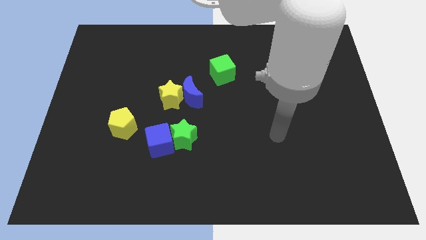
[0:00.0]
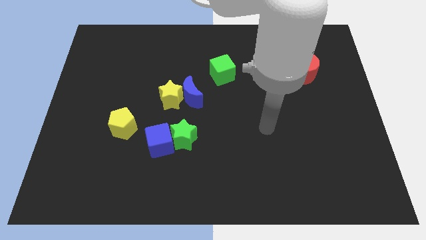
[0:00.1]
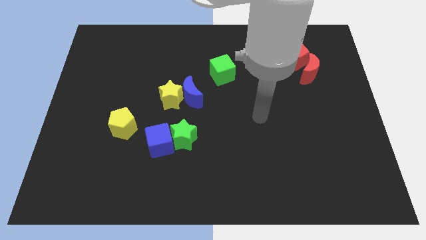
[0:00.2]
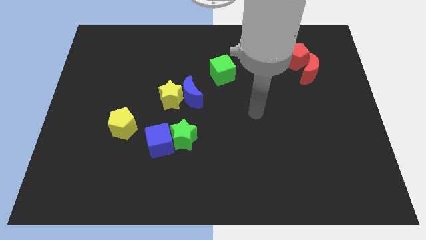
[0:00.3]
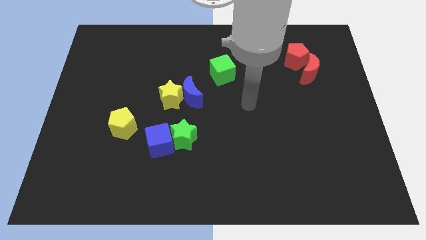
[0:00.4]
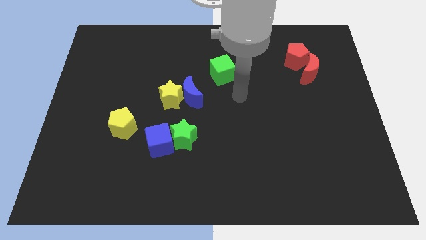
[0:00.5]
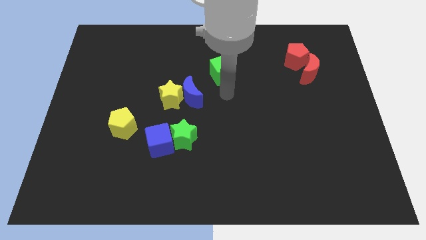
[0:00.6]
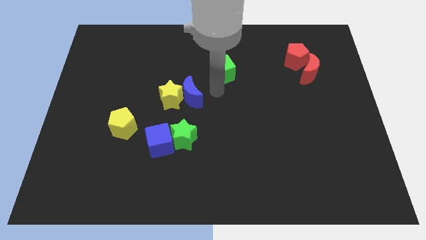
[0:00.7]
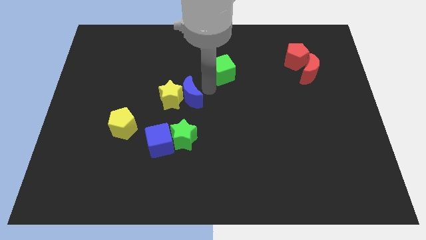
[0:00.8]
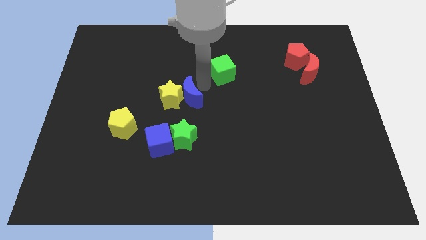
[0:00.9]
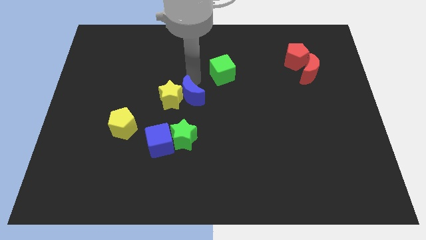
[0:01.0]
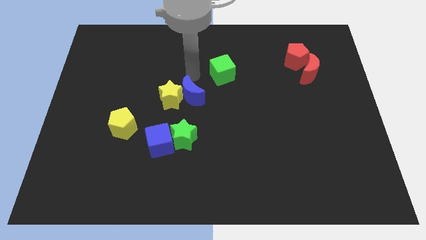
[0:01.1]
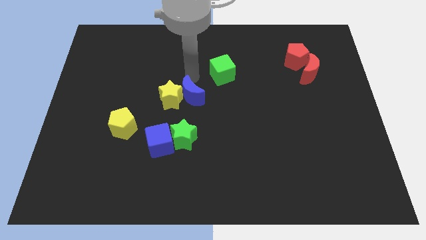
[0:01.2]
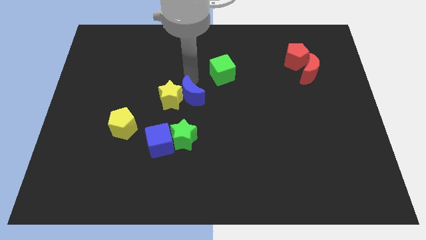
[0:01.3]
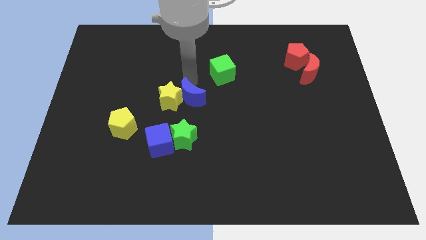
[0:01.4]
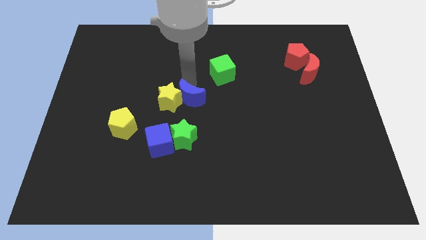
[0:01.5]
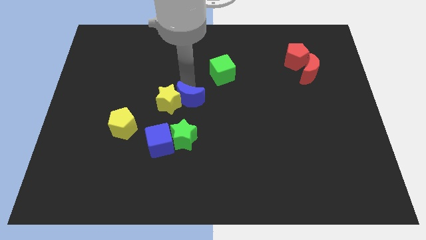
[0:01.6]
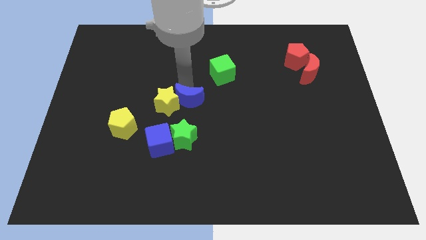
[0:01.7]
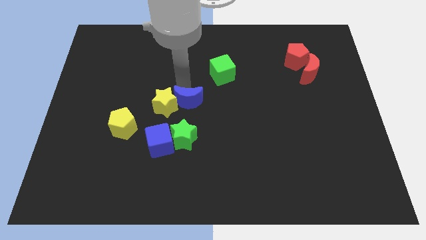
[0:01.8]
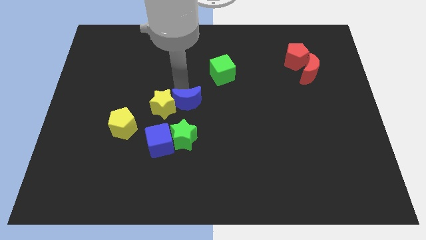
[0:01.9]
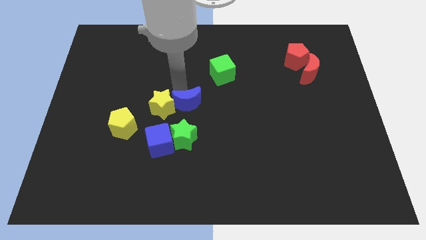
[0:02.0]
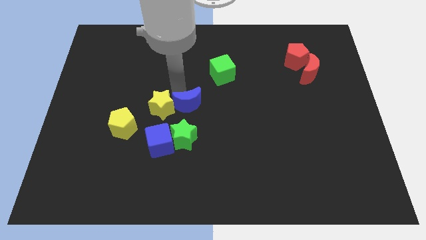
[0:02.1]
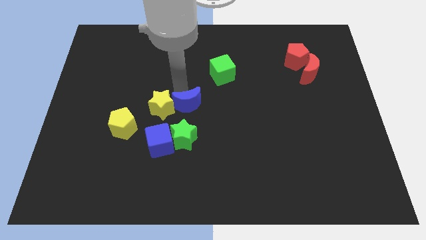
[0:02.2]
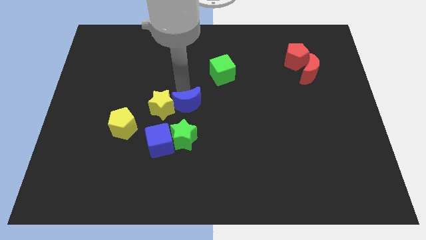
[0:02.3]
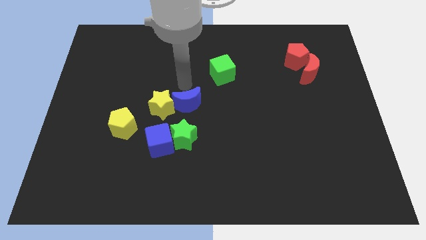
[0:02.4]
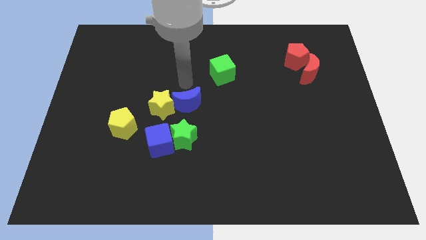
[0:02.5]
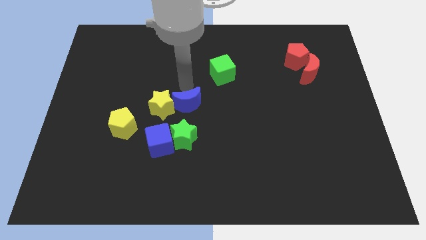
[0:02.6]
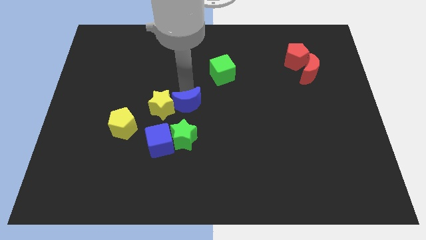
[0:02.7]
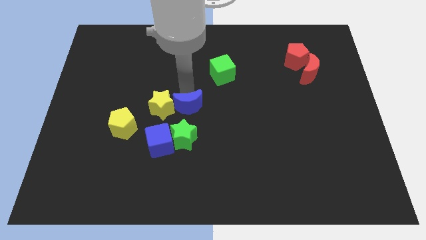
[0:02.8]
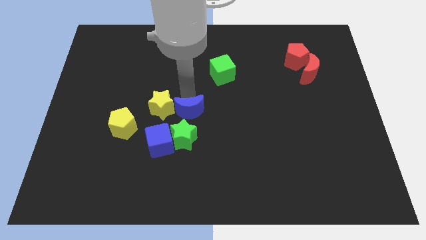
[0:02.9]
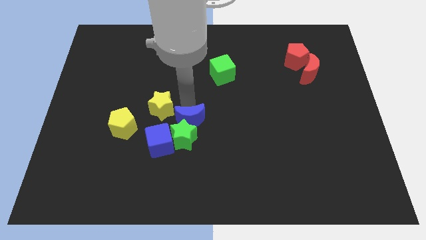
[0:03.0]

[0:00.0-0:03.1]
move the blue moon downwards a little bit

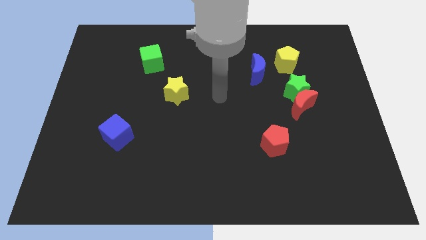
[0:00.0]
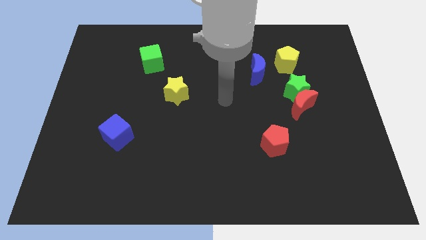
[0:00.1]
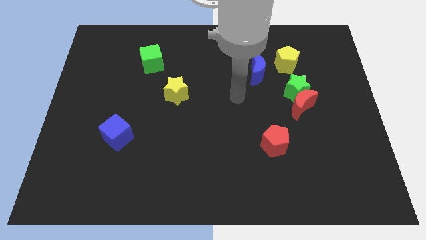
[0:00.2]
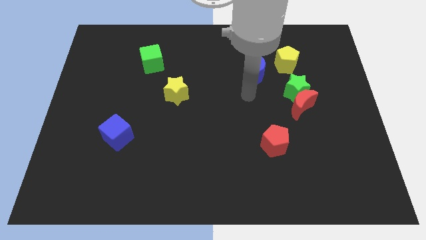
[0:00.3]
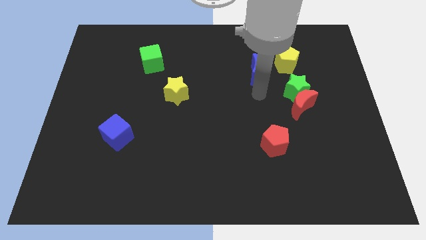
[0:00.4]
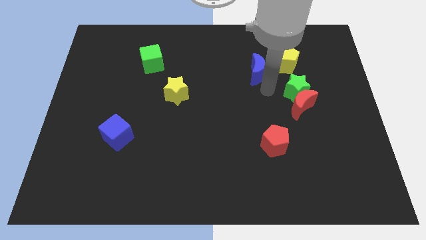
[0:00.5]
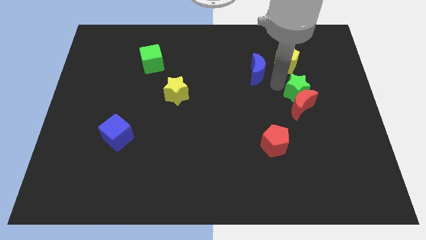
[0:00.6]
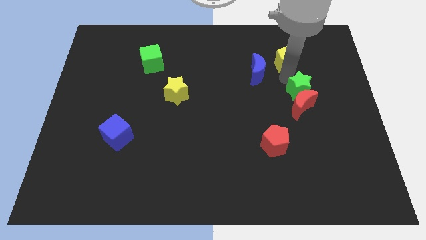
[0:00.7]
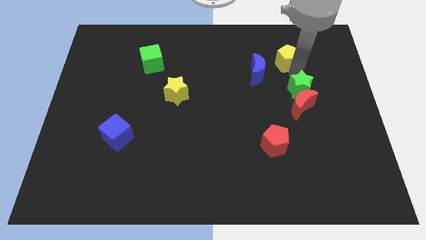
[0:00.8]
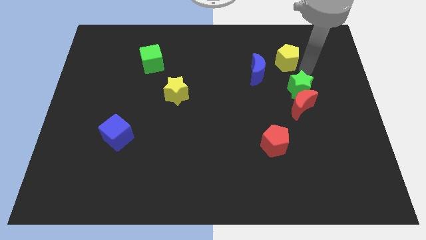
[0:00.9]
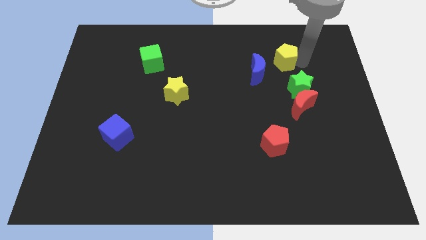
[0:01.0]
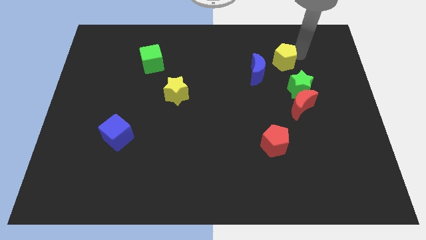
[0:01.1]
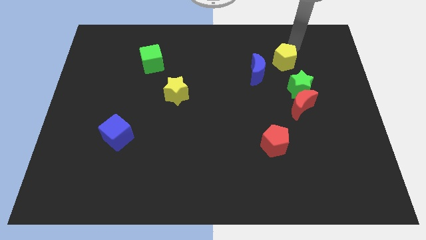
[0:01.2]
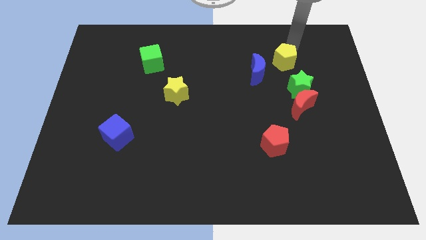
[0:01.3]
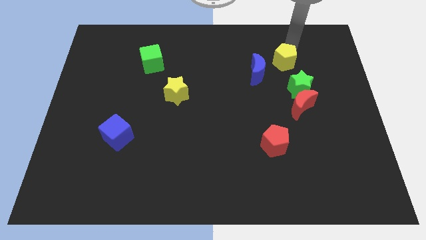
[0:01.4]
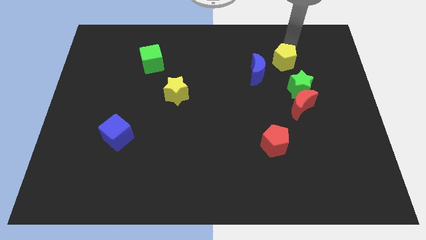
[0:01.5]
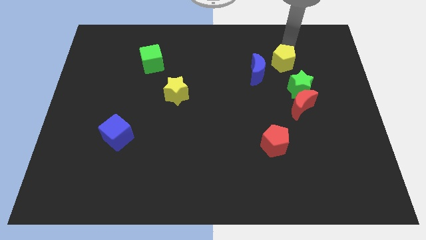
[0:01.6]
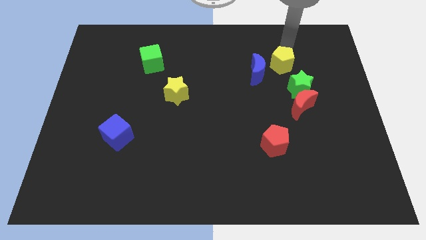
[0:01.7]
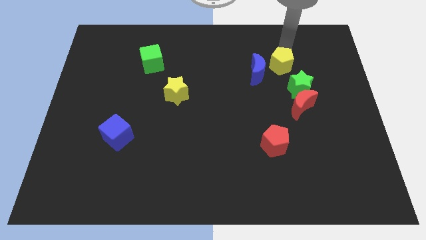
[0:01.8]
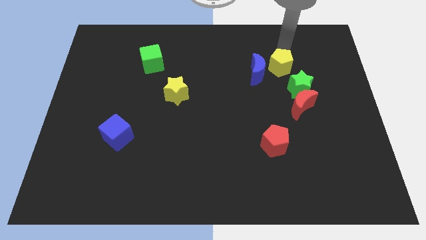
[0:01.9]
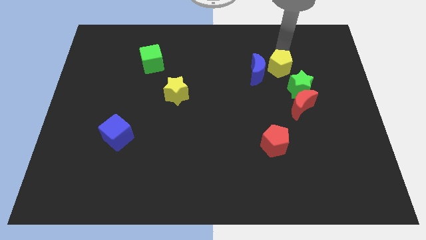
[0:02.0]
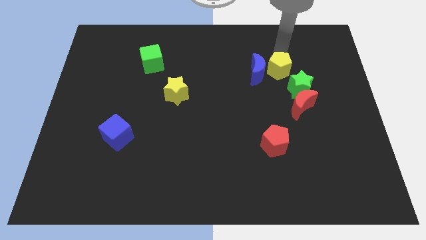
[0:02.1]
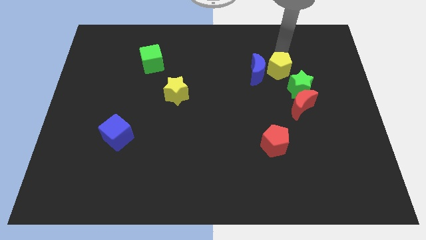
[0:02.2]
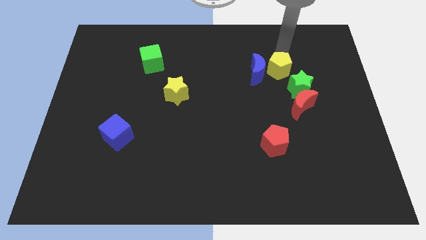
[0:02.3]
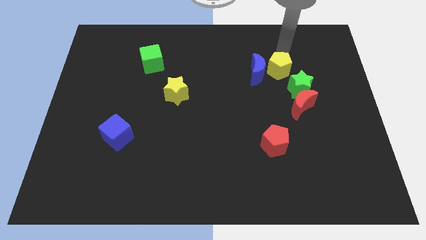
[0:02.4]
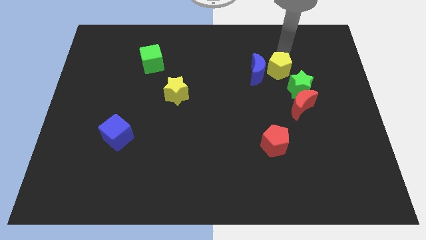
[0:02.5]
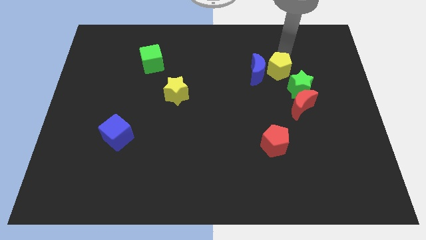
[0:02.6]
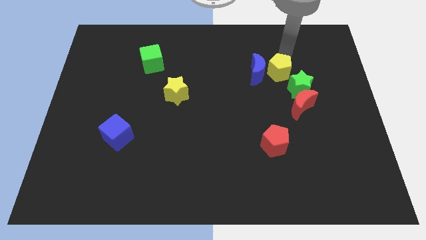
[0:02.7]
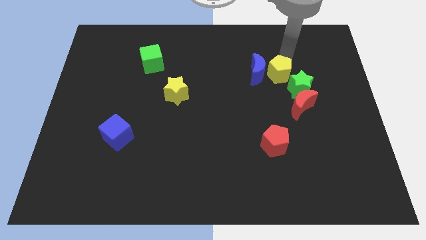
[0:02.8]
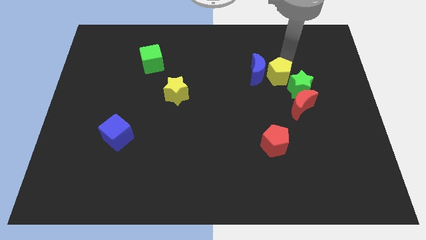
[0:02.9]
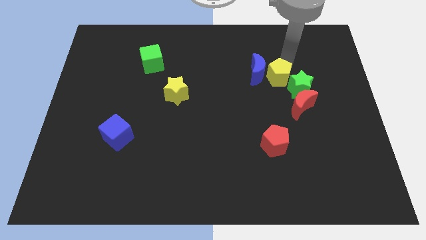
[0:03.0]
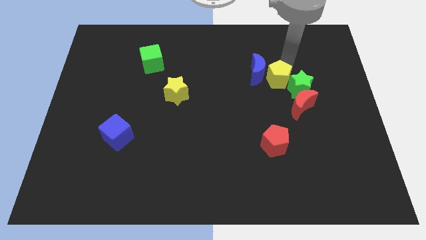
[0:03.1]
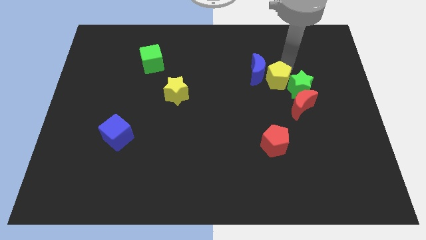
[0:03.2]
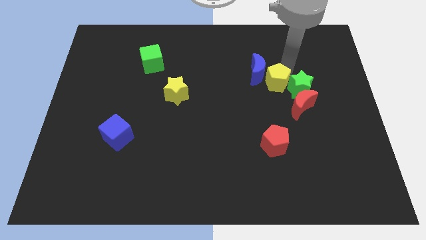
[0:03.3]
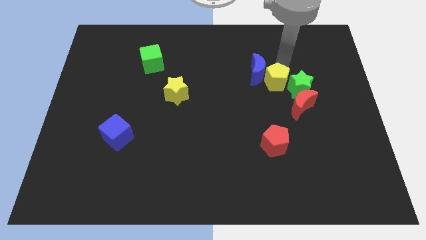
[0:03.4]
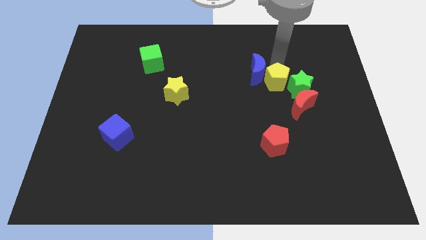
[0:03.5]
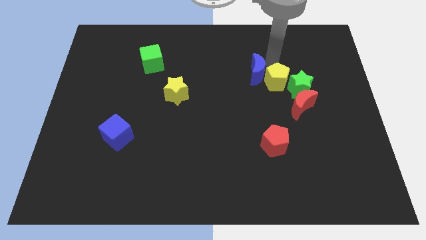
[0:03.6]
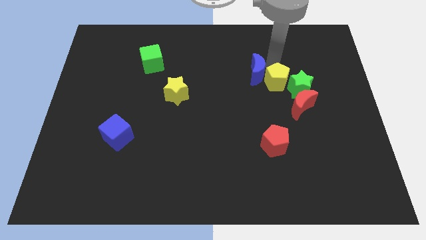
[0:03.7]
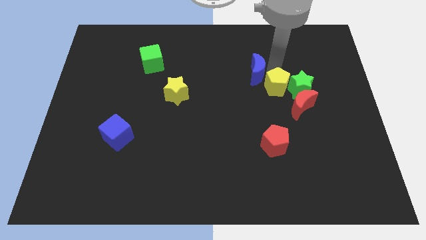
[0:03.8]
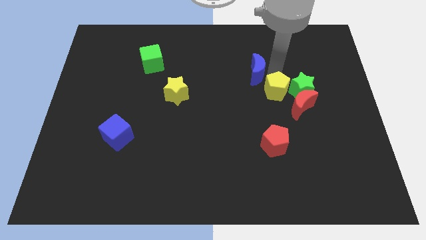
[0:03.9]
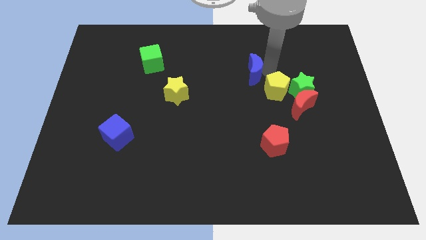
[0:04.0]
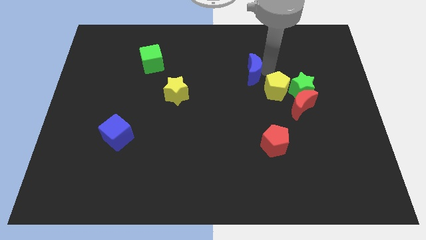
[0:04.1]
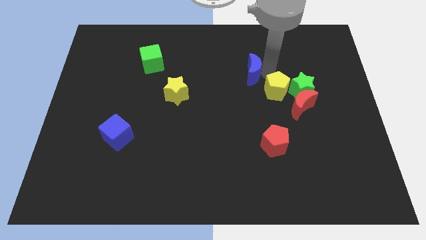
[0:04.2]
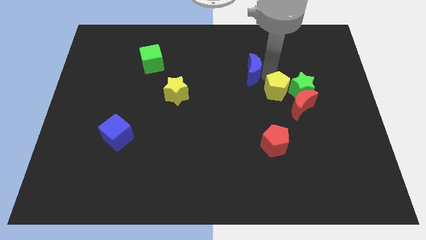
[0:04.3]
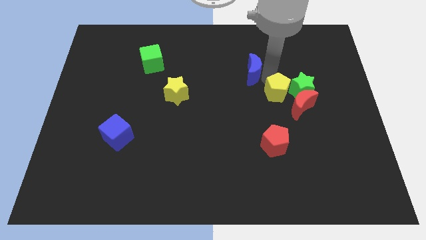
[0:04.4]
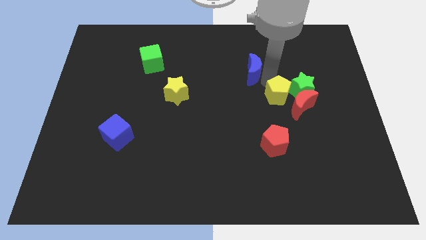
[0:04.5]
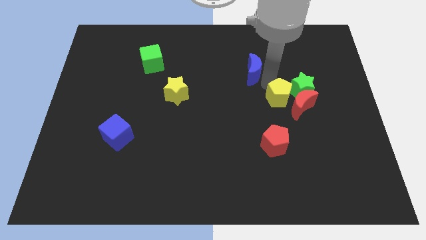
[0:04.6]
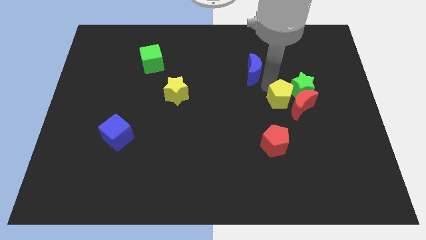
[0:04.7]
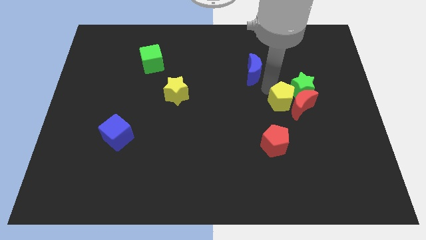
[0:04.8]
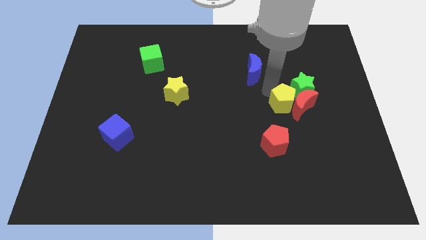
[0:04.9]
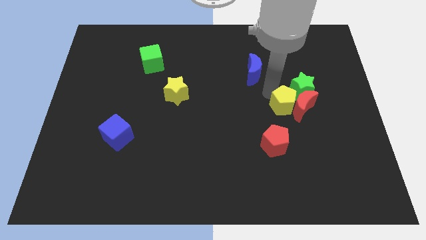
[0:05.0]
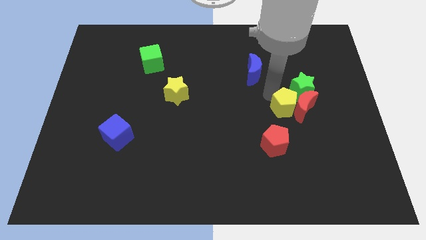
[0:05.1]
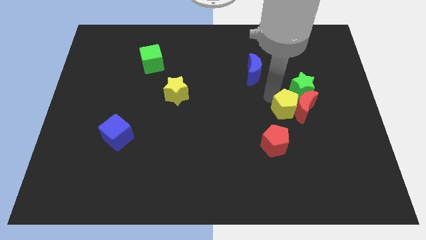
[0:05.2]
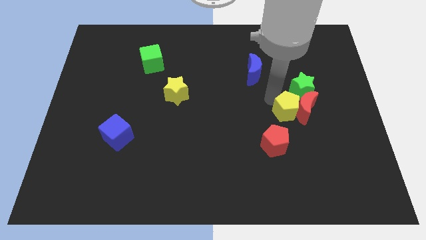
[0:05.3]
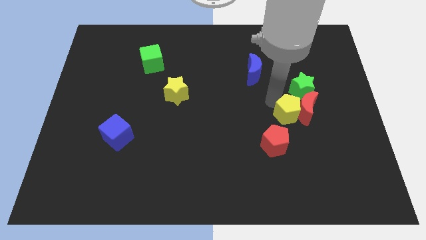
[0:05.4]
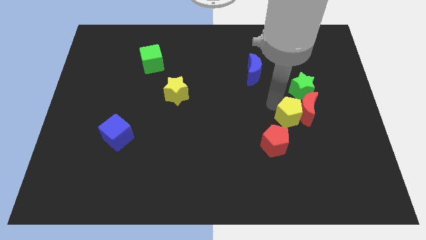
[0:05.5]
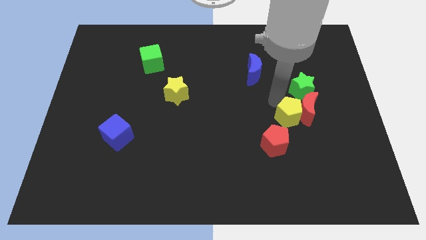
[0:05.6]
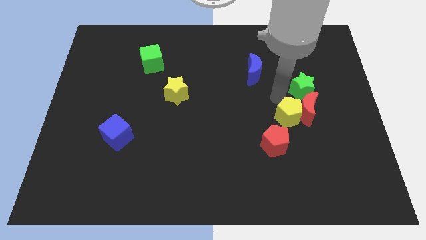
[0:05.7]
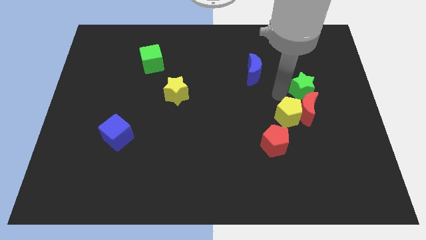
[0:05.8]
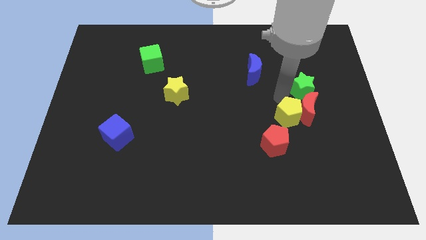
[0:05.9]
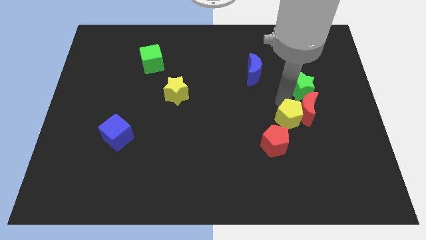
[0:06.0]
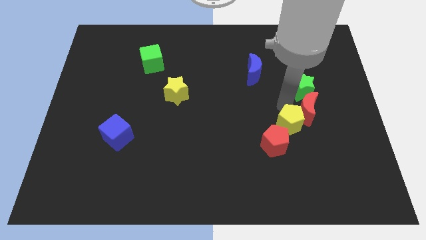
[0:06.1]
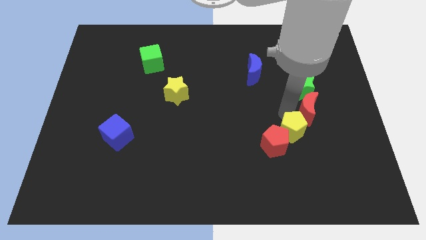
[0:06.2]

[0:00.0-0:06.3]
push the yellow pentagon downwards
